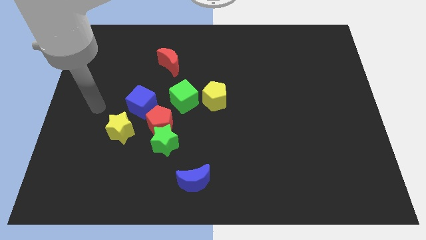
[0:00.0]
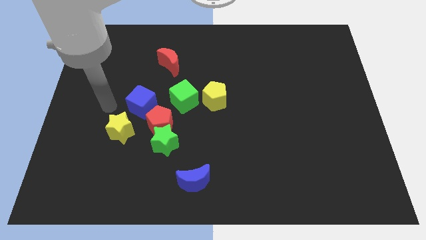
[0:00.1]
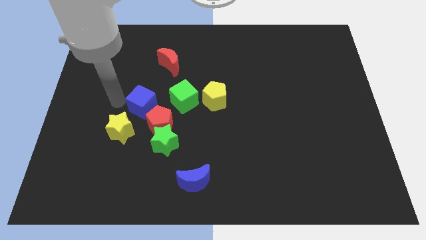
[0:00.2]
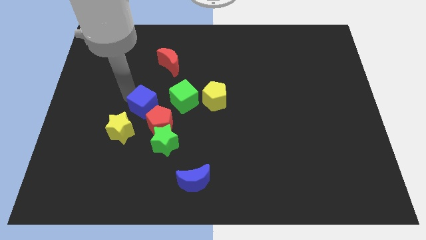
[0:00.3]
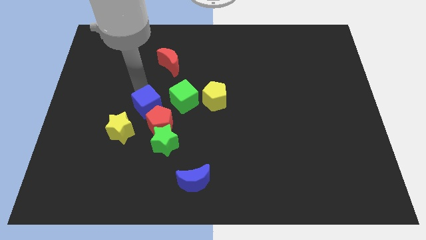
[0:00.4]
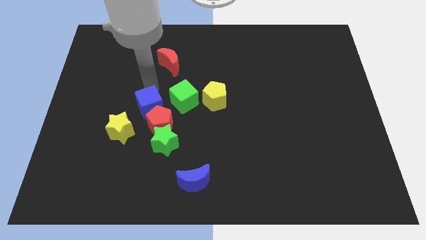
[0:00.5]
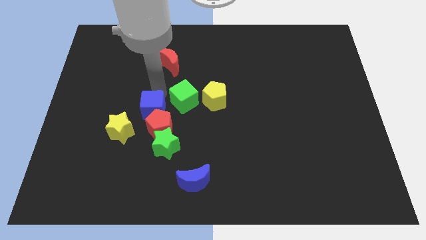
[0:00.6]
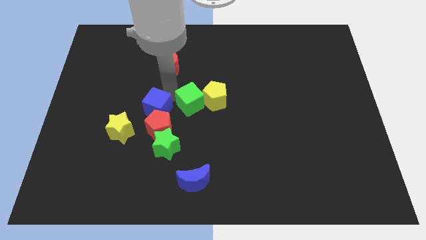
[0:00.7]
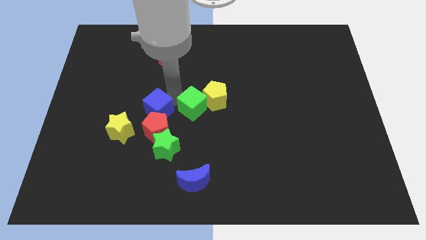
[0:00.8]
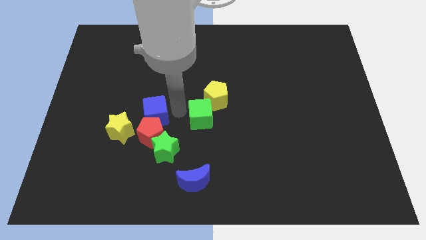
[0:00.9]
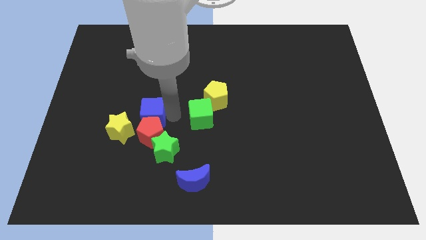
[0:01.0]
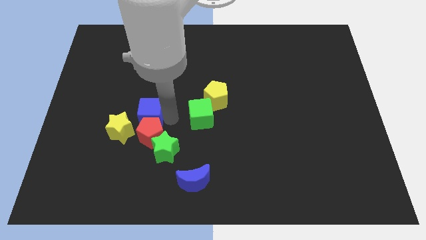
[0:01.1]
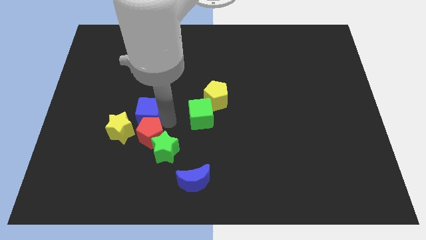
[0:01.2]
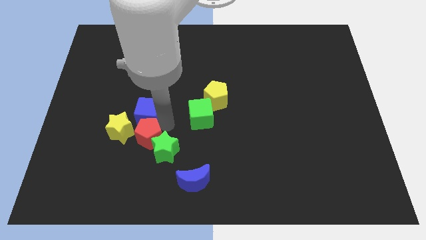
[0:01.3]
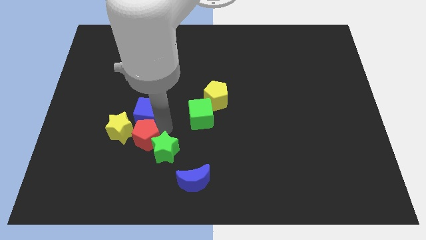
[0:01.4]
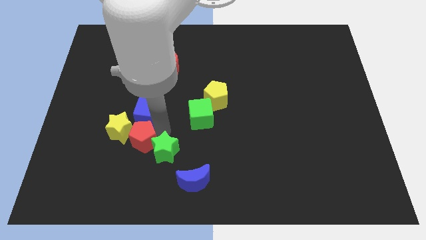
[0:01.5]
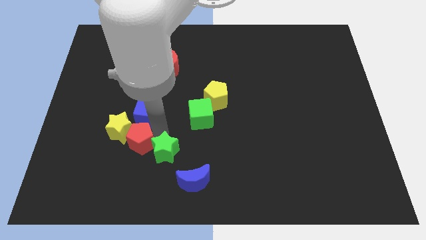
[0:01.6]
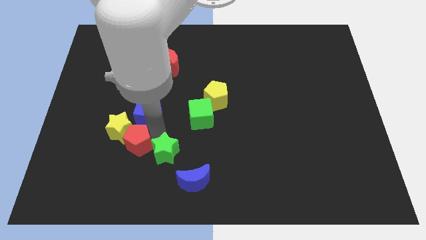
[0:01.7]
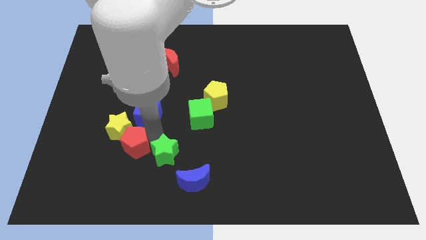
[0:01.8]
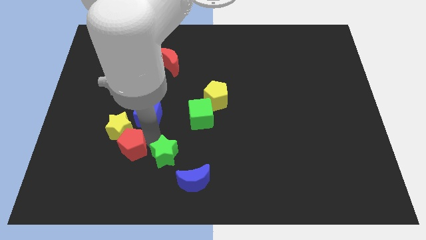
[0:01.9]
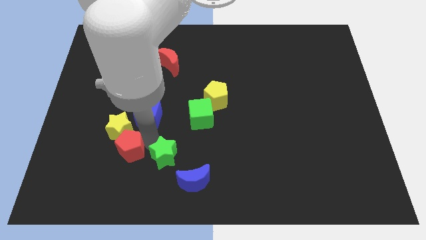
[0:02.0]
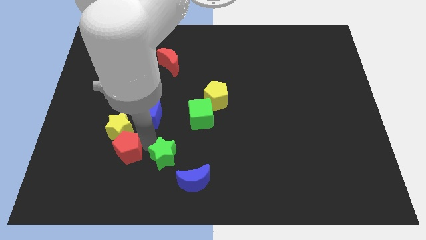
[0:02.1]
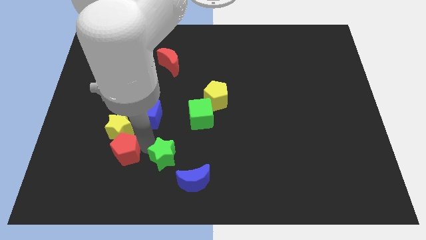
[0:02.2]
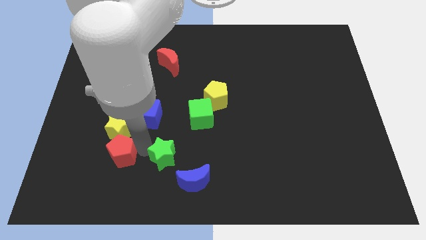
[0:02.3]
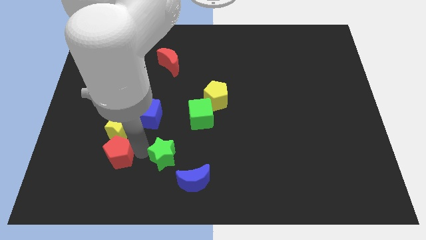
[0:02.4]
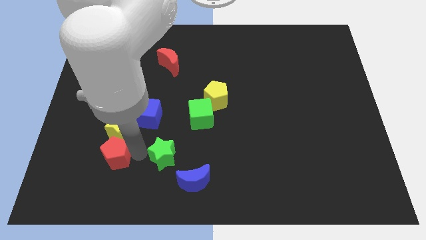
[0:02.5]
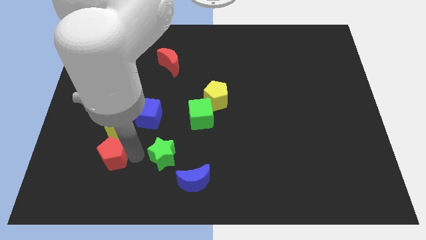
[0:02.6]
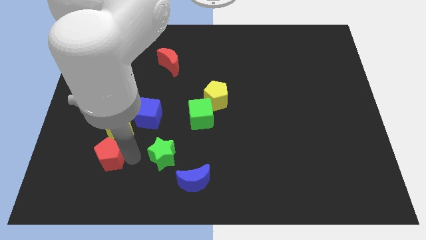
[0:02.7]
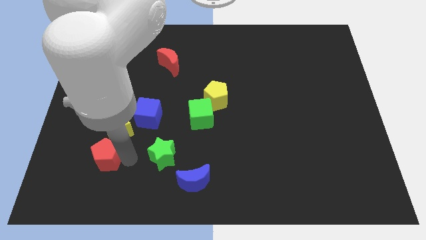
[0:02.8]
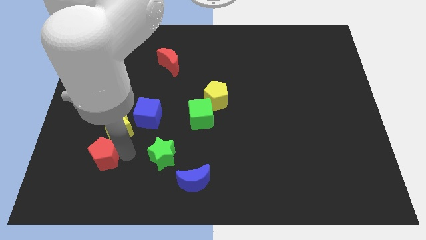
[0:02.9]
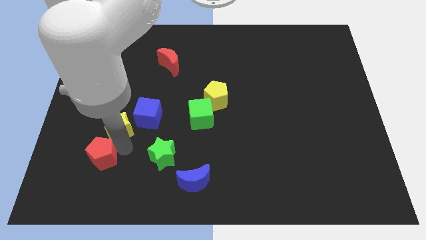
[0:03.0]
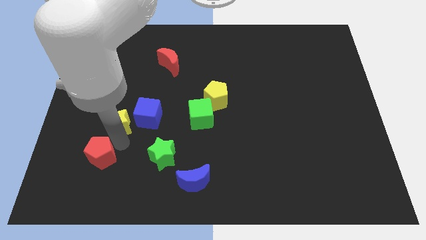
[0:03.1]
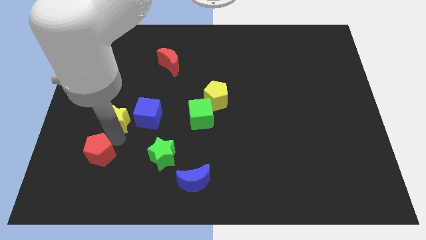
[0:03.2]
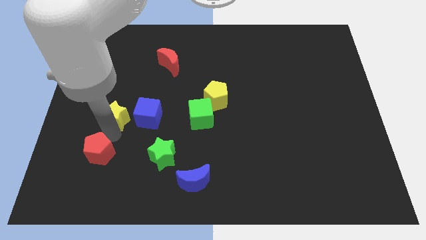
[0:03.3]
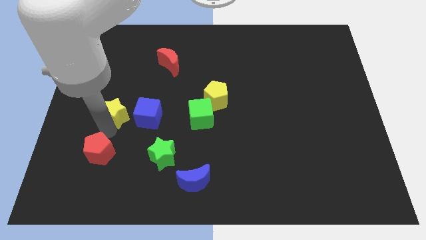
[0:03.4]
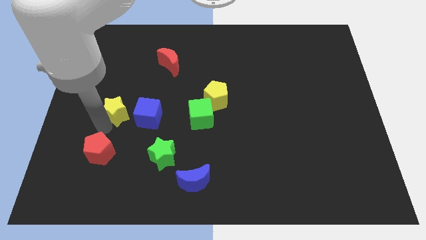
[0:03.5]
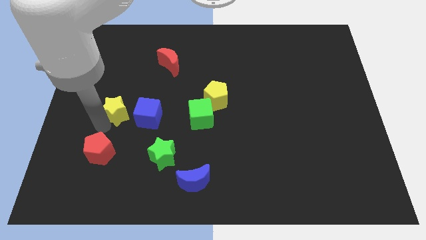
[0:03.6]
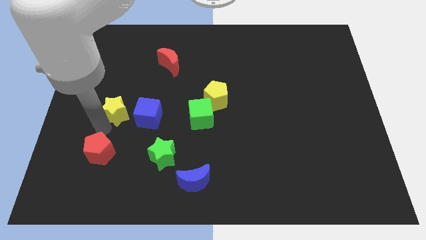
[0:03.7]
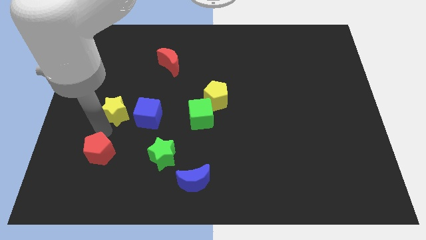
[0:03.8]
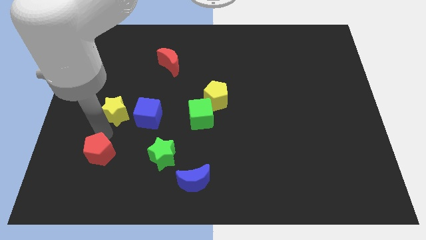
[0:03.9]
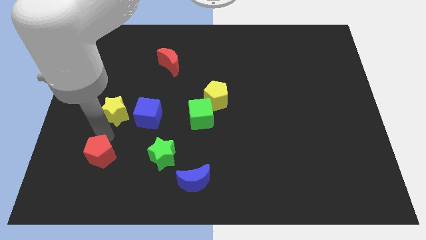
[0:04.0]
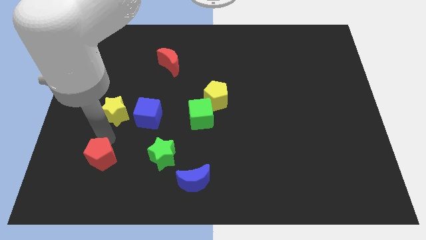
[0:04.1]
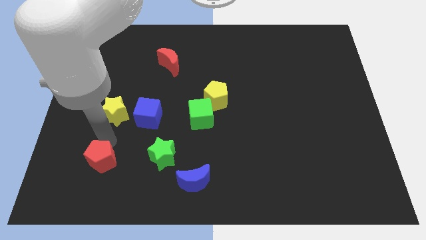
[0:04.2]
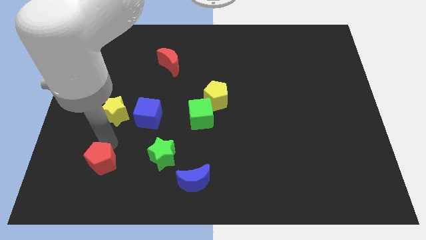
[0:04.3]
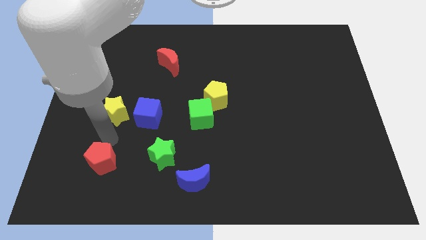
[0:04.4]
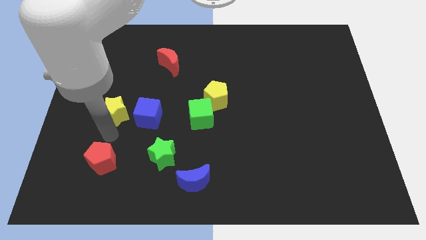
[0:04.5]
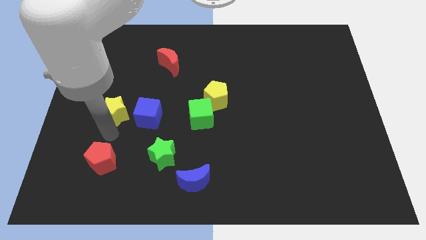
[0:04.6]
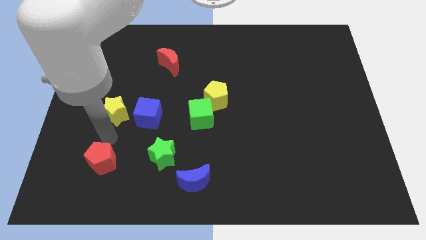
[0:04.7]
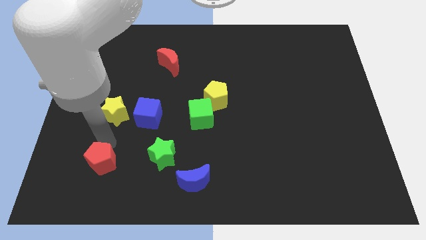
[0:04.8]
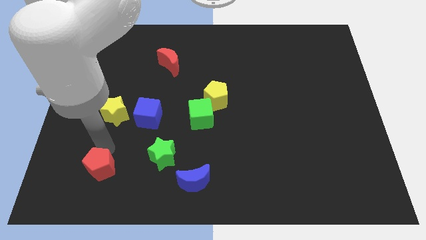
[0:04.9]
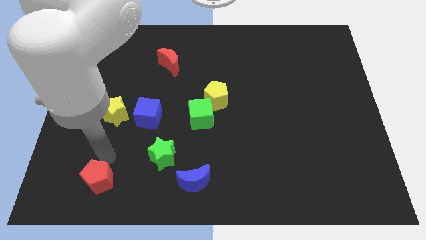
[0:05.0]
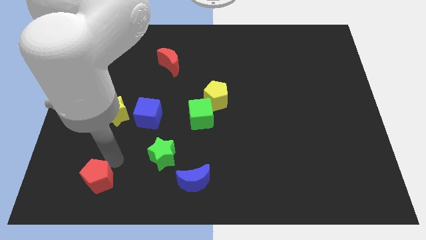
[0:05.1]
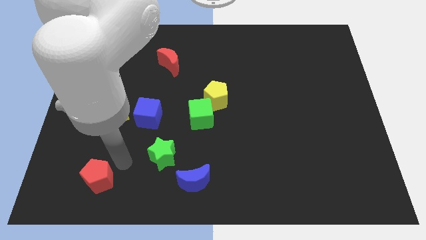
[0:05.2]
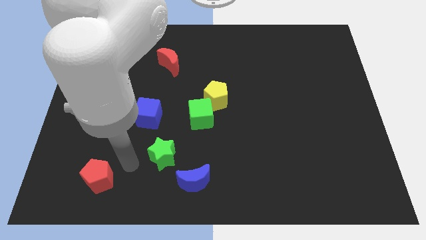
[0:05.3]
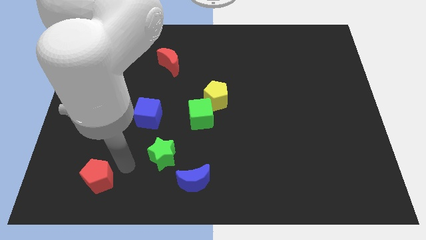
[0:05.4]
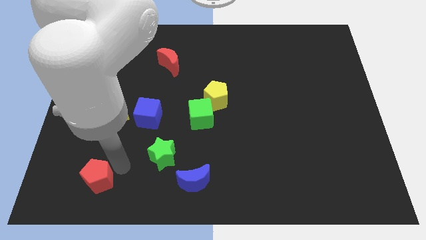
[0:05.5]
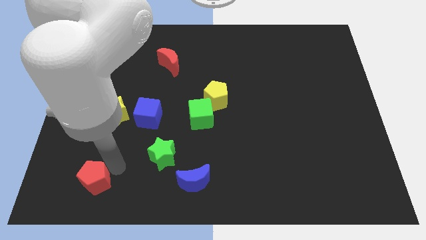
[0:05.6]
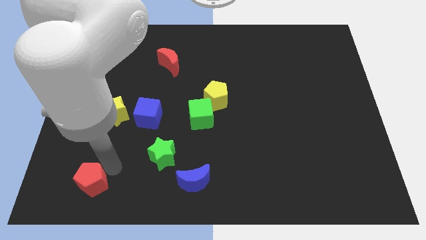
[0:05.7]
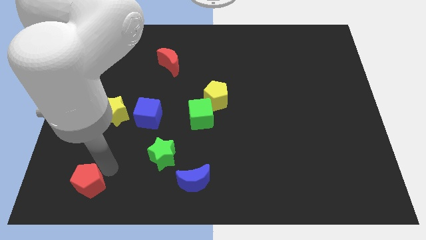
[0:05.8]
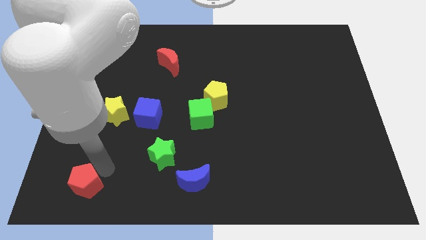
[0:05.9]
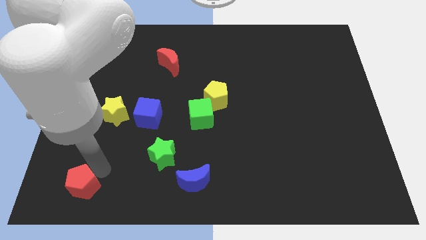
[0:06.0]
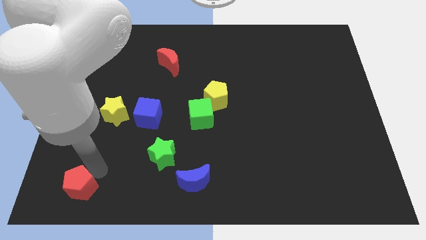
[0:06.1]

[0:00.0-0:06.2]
slide the red pentagon to the bottom left
